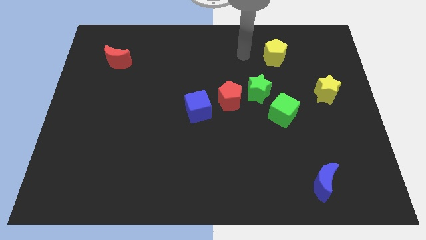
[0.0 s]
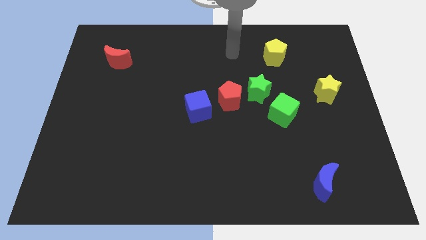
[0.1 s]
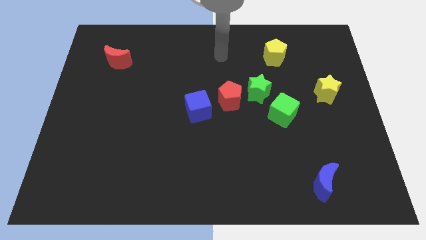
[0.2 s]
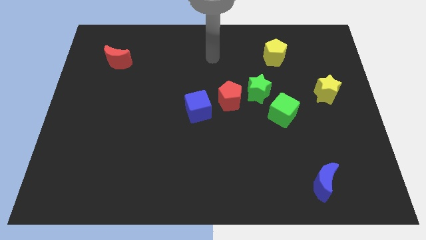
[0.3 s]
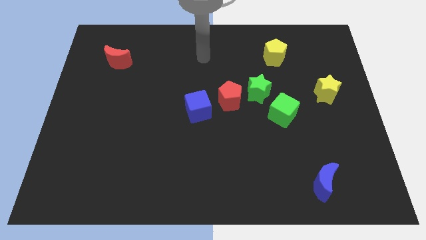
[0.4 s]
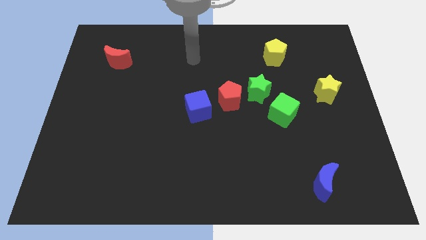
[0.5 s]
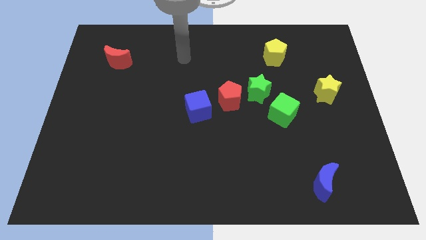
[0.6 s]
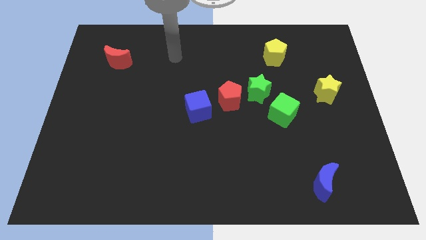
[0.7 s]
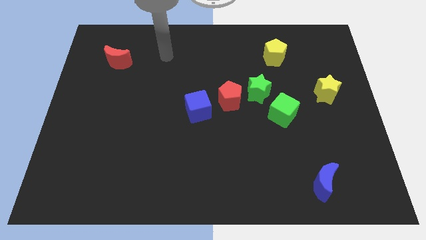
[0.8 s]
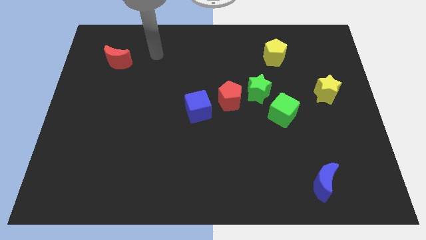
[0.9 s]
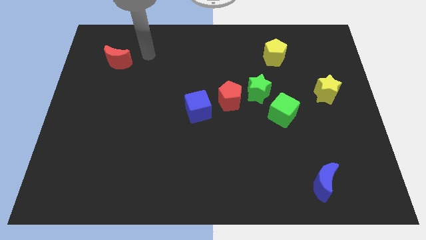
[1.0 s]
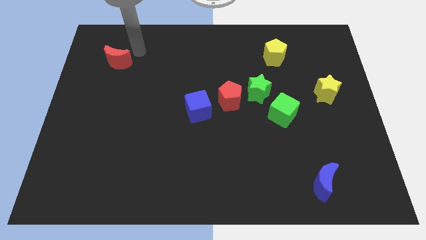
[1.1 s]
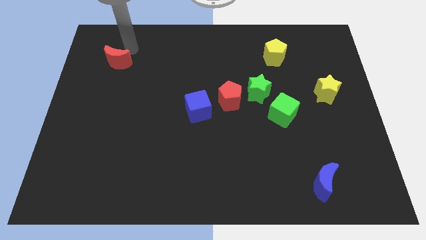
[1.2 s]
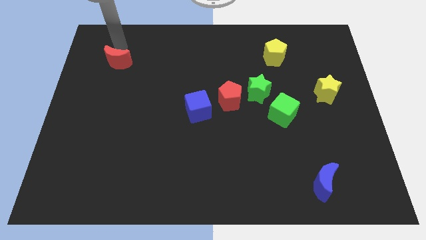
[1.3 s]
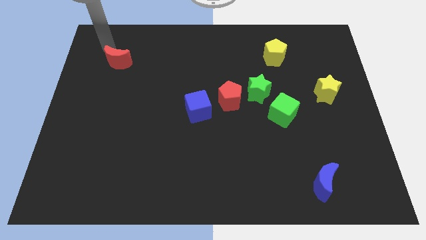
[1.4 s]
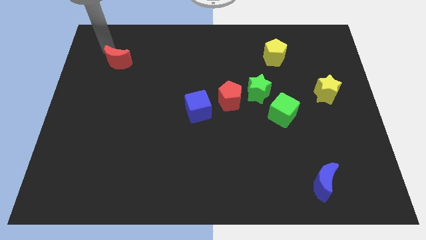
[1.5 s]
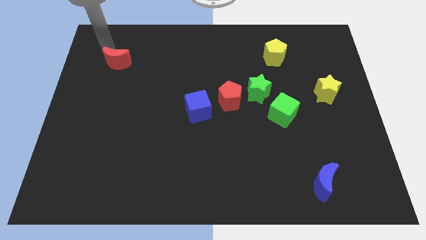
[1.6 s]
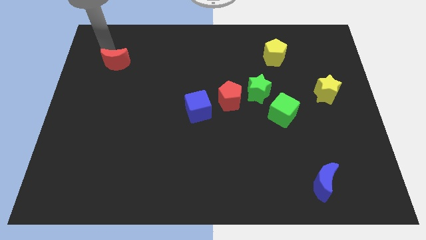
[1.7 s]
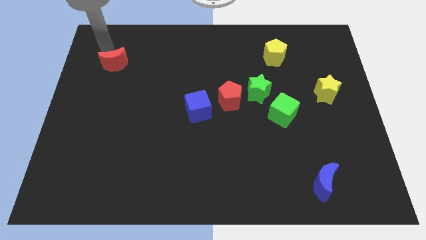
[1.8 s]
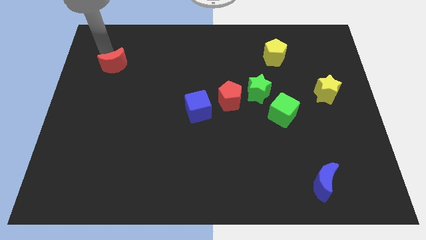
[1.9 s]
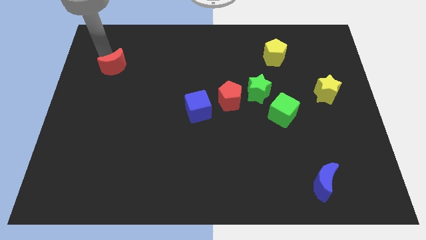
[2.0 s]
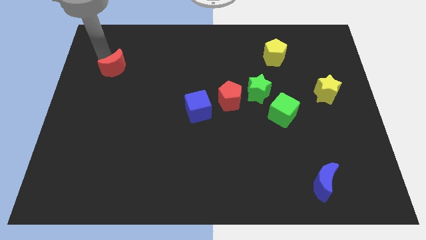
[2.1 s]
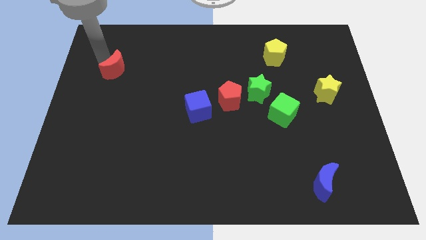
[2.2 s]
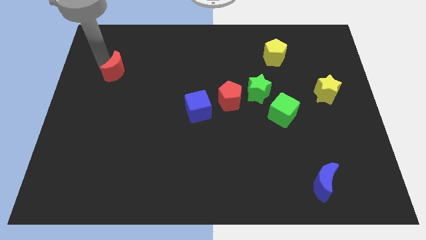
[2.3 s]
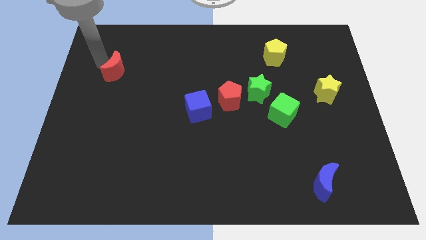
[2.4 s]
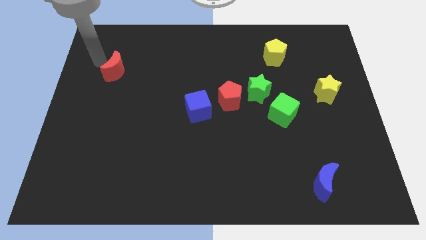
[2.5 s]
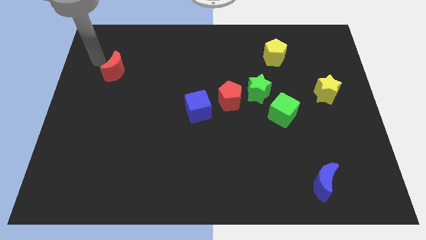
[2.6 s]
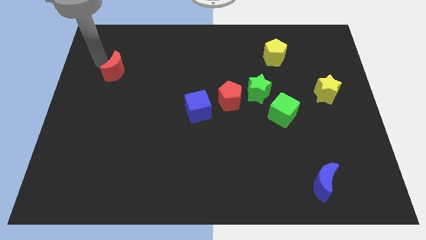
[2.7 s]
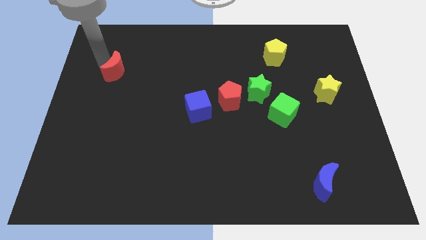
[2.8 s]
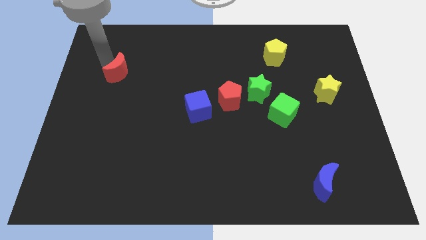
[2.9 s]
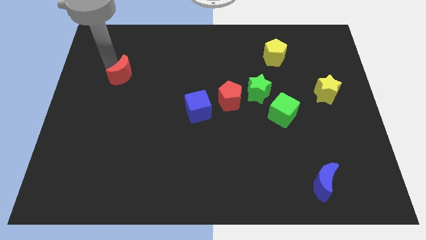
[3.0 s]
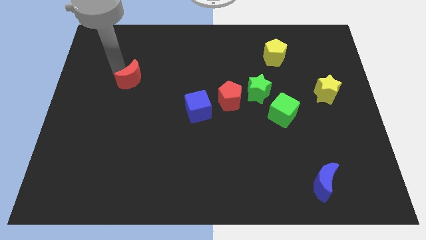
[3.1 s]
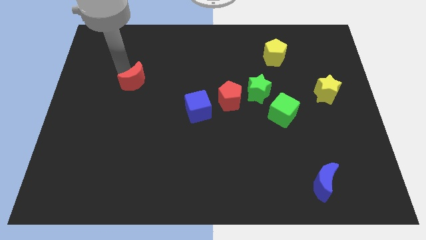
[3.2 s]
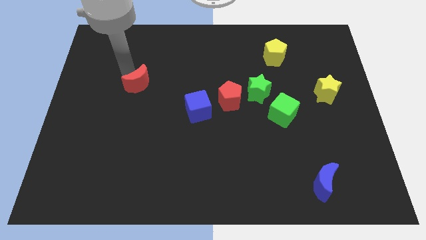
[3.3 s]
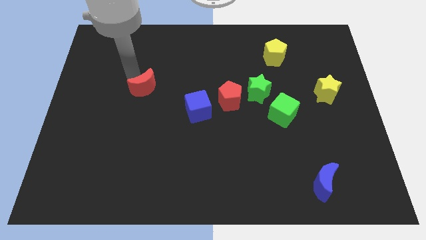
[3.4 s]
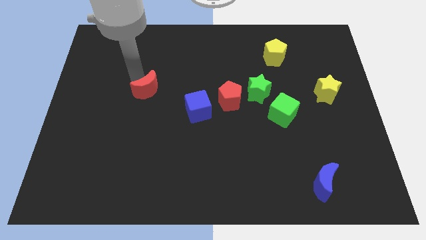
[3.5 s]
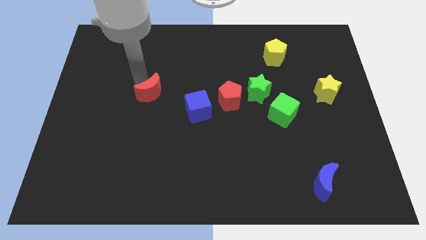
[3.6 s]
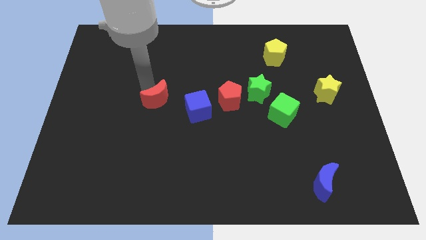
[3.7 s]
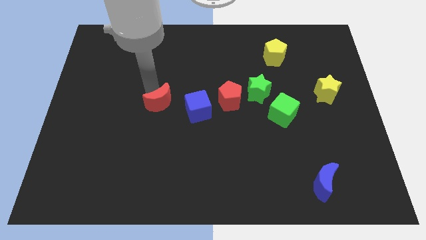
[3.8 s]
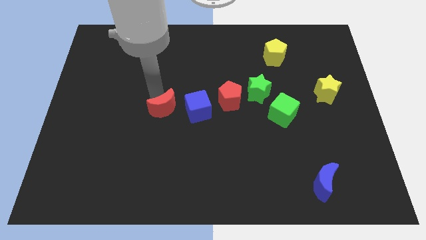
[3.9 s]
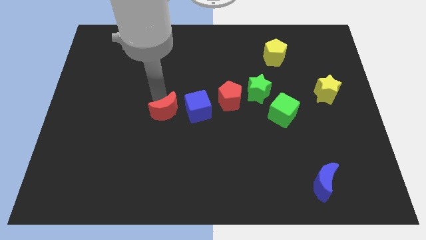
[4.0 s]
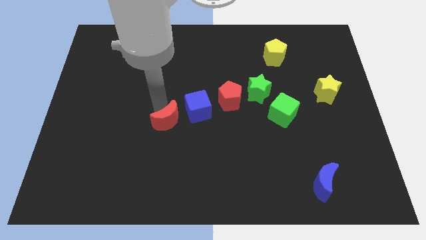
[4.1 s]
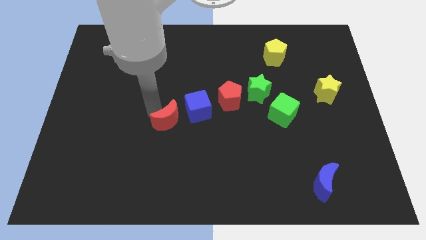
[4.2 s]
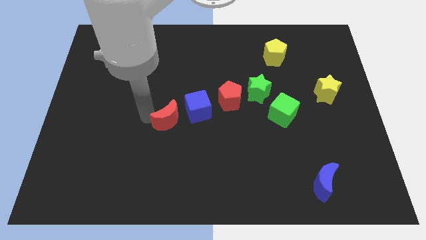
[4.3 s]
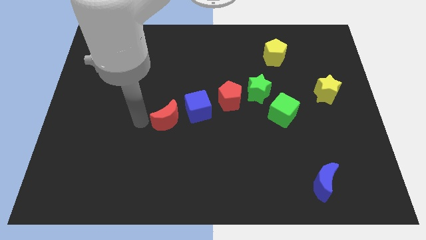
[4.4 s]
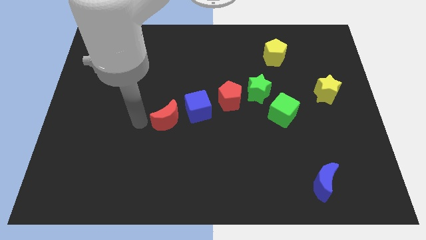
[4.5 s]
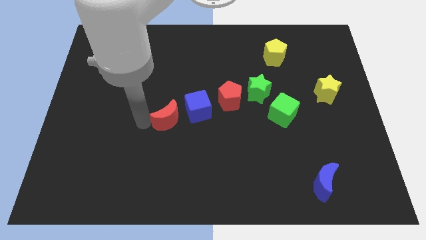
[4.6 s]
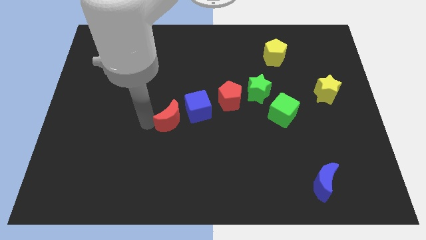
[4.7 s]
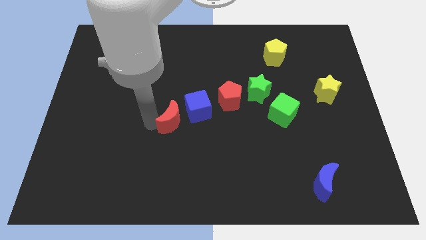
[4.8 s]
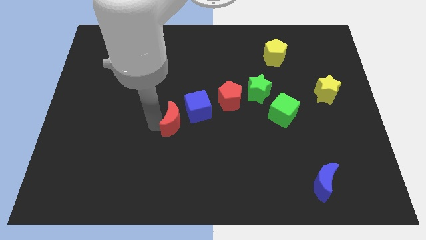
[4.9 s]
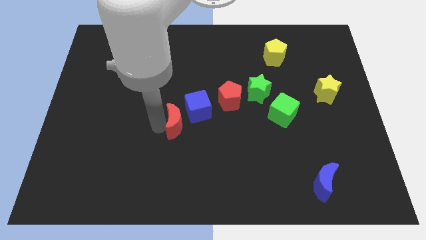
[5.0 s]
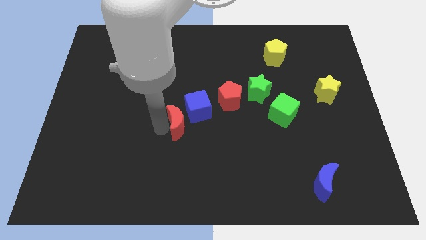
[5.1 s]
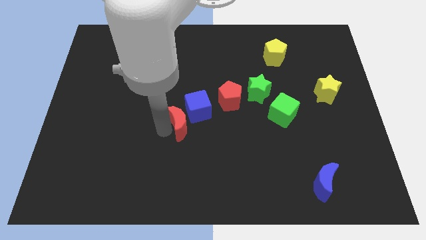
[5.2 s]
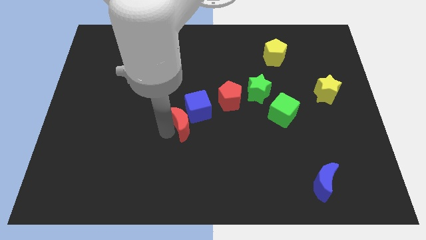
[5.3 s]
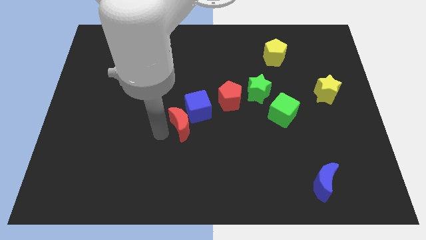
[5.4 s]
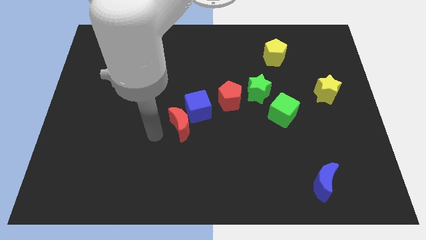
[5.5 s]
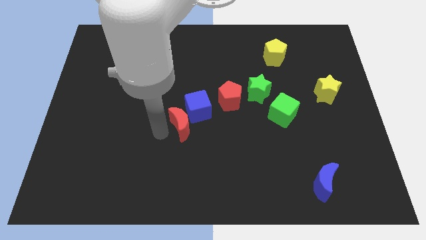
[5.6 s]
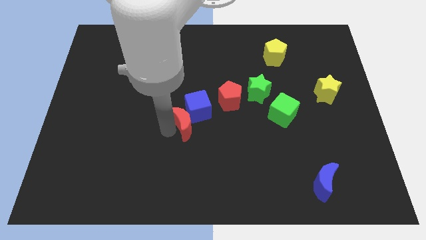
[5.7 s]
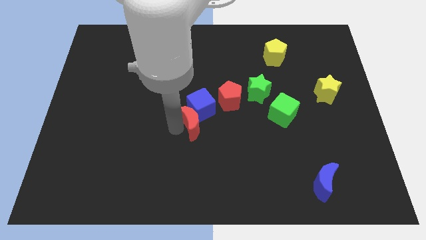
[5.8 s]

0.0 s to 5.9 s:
move the red moon to the bottom left of the red pentagon
